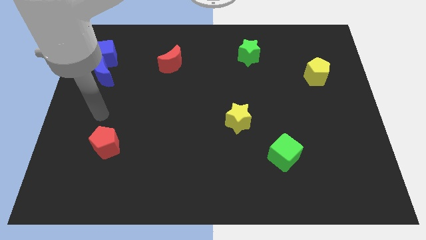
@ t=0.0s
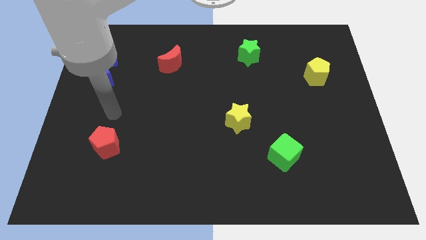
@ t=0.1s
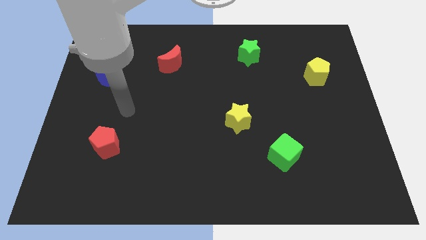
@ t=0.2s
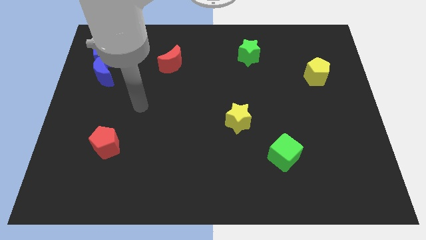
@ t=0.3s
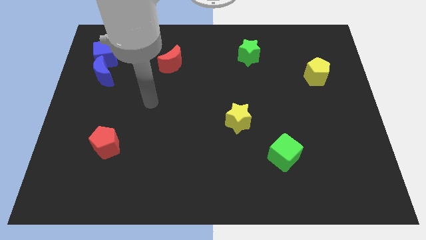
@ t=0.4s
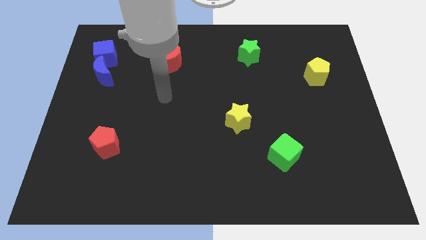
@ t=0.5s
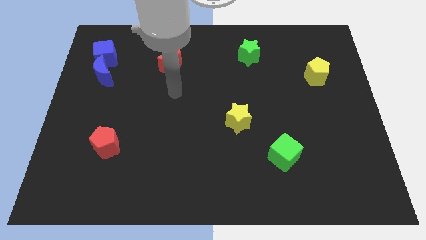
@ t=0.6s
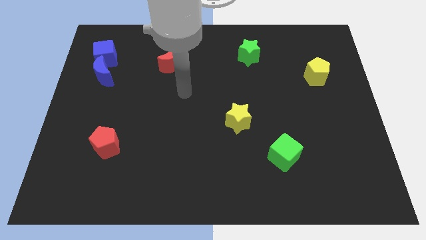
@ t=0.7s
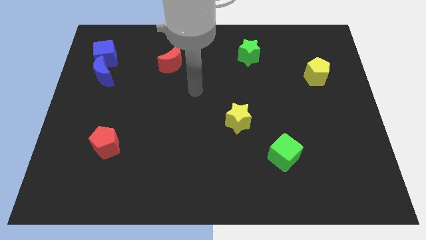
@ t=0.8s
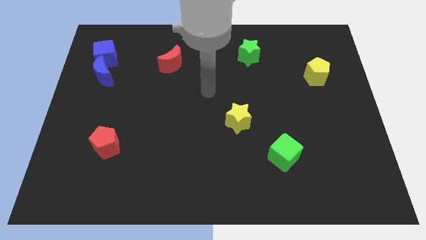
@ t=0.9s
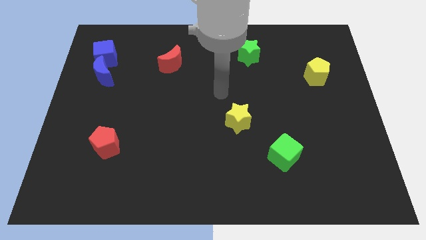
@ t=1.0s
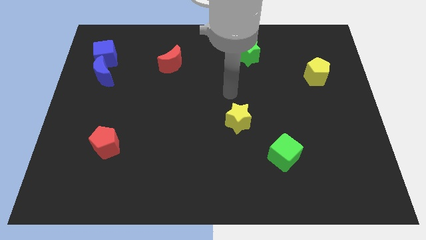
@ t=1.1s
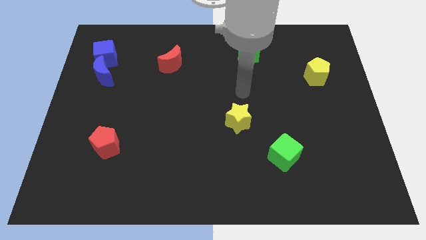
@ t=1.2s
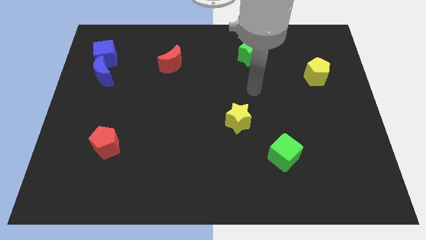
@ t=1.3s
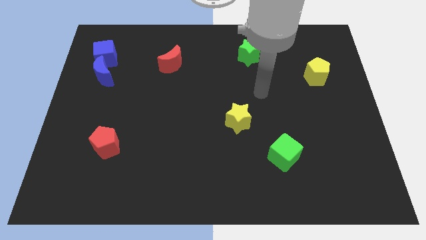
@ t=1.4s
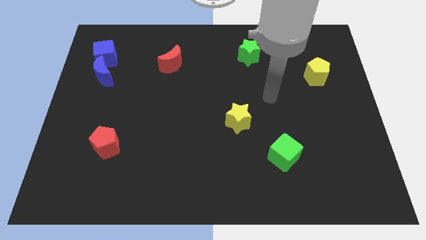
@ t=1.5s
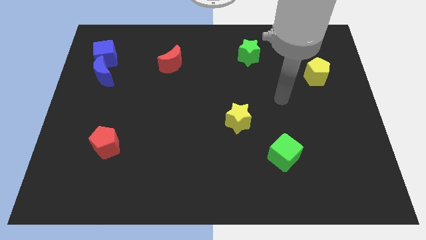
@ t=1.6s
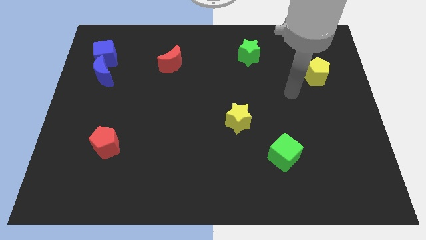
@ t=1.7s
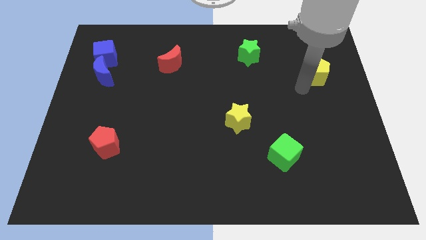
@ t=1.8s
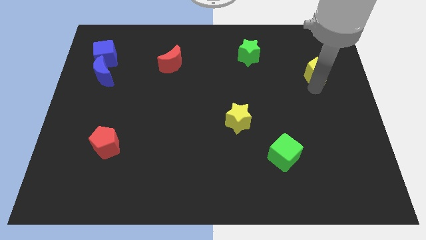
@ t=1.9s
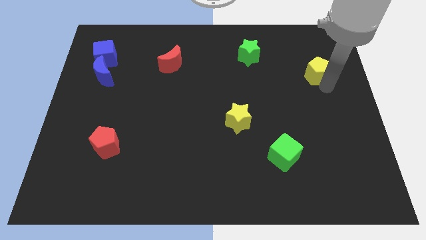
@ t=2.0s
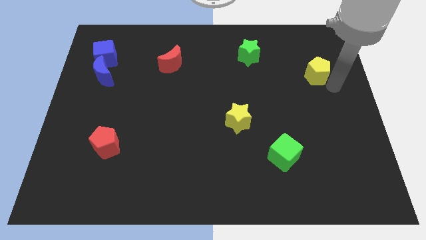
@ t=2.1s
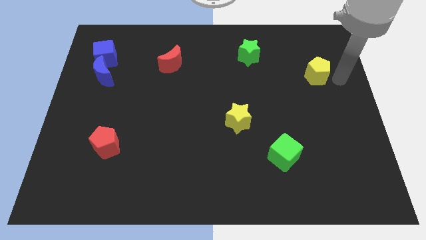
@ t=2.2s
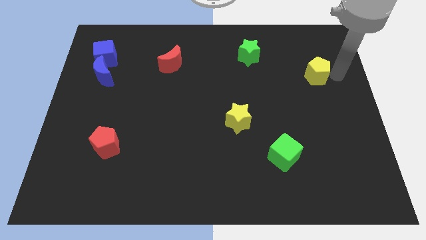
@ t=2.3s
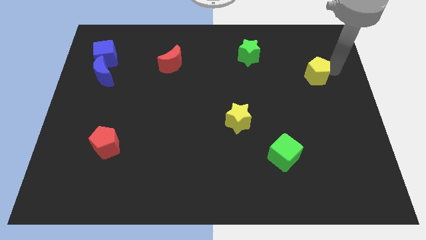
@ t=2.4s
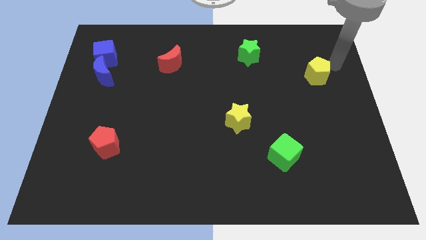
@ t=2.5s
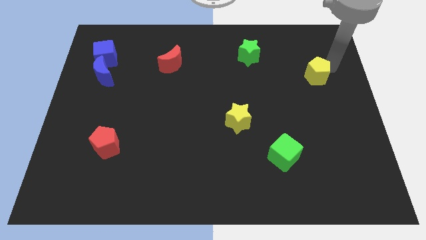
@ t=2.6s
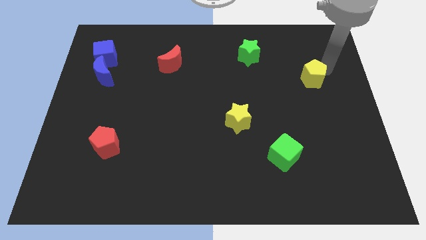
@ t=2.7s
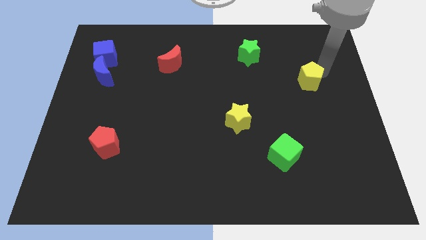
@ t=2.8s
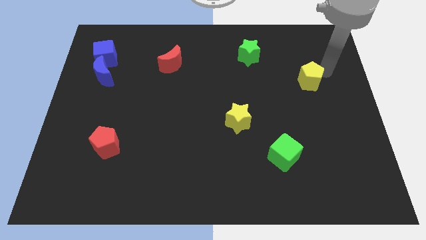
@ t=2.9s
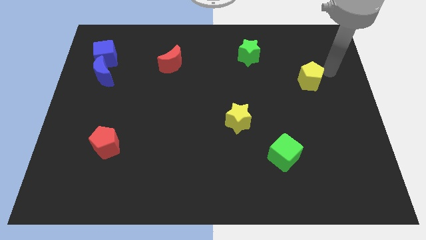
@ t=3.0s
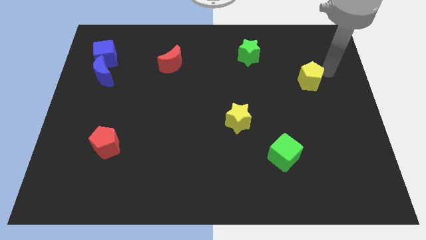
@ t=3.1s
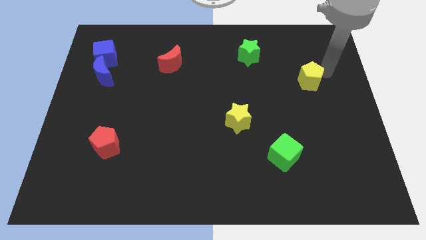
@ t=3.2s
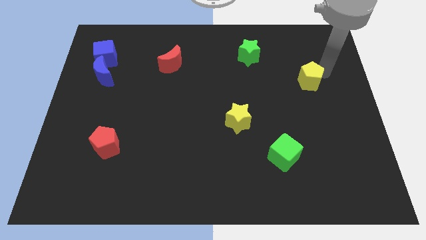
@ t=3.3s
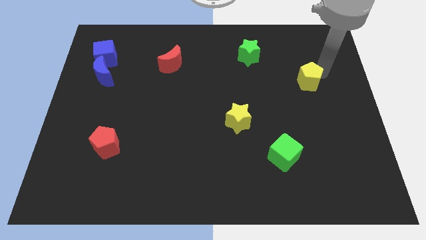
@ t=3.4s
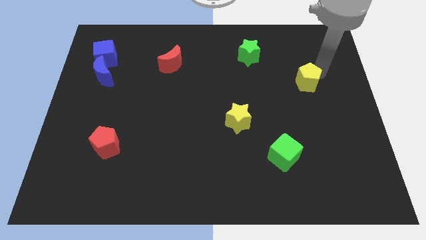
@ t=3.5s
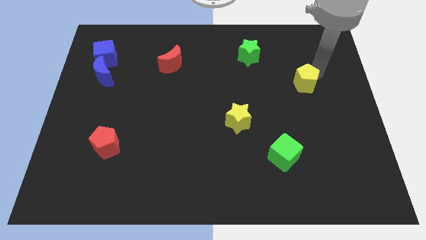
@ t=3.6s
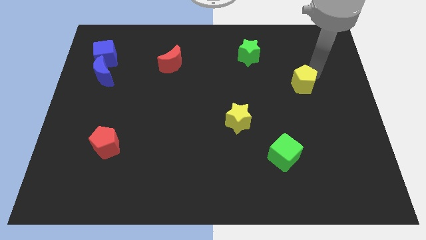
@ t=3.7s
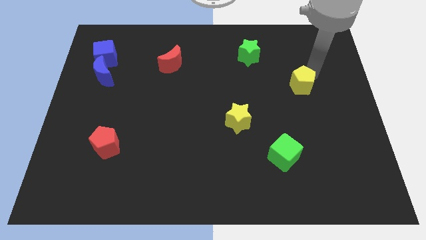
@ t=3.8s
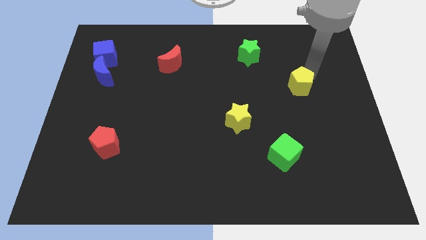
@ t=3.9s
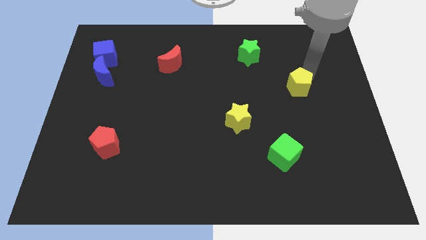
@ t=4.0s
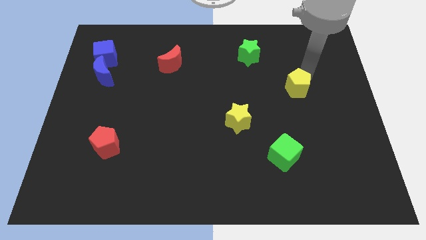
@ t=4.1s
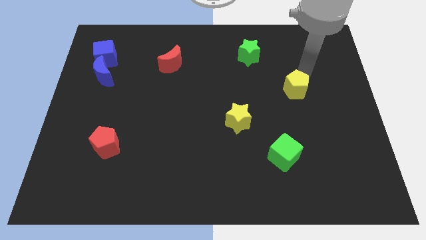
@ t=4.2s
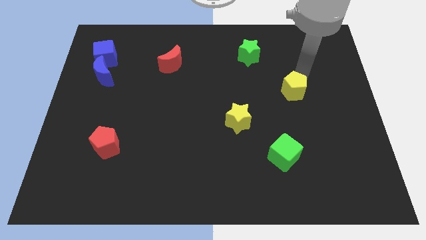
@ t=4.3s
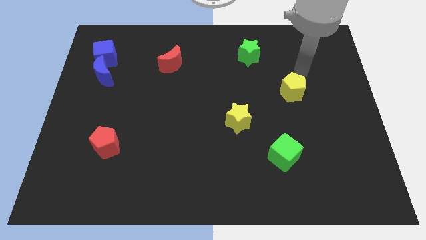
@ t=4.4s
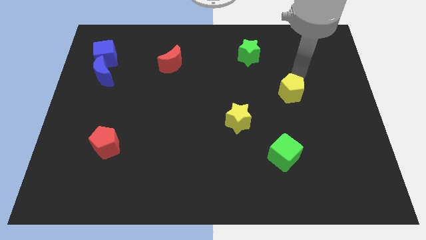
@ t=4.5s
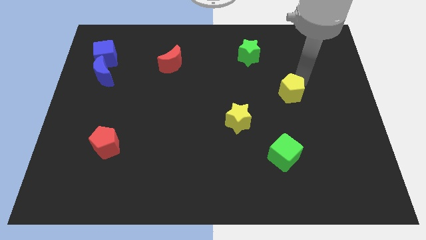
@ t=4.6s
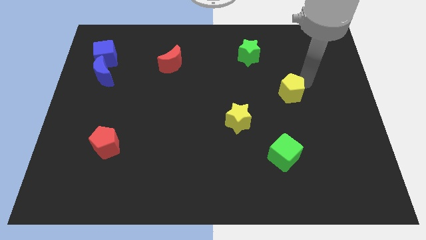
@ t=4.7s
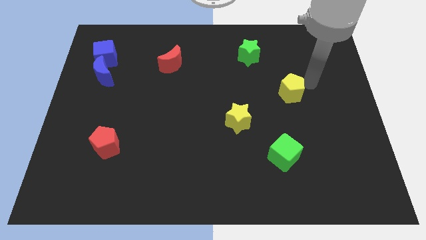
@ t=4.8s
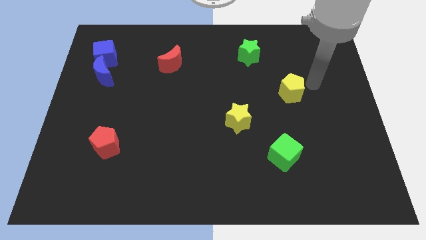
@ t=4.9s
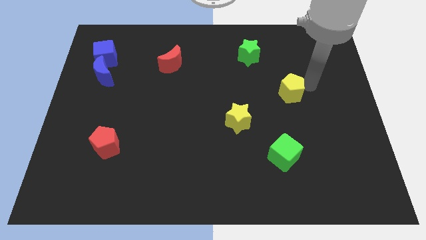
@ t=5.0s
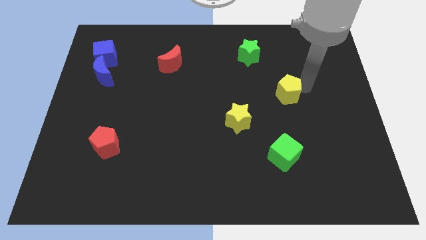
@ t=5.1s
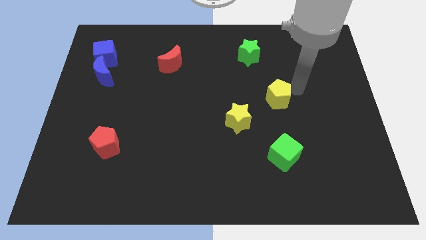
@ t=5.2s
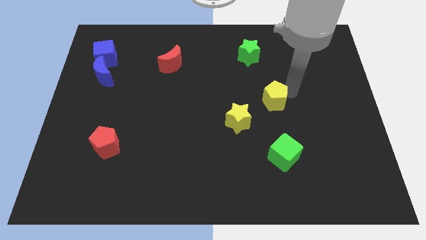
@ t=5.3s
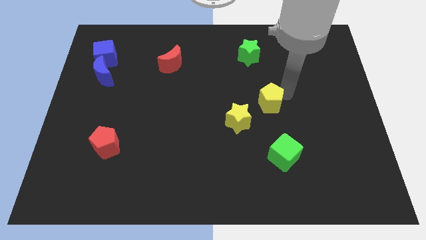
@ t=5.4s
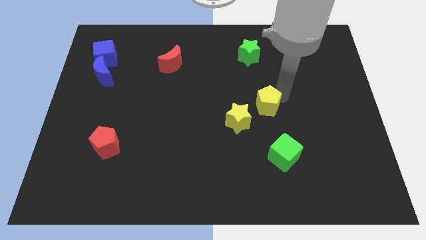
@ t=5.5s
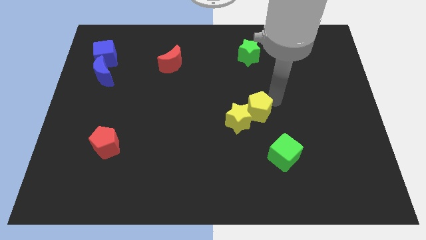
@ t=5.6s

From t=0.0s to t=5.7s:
push the yellow pentagon close to the yellow star

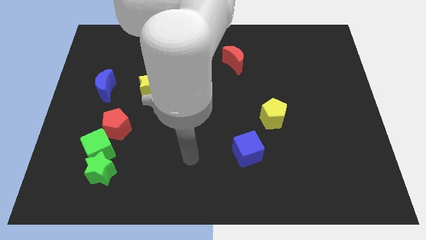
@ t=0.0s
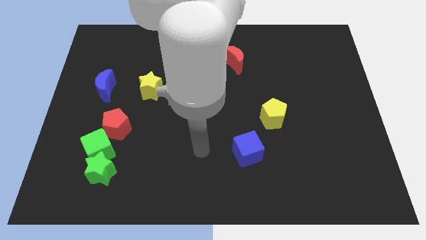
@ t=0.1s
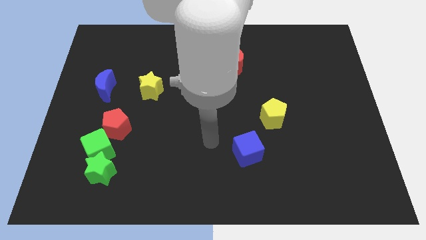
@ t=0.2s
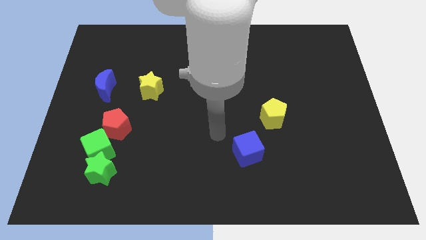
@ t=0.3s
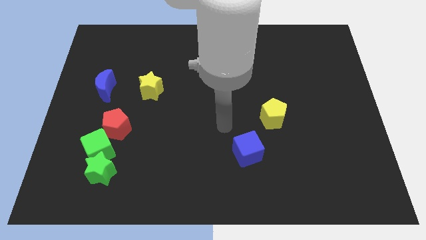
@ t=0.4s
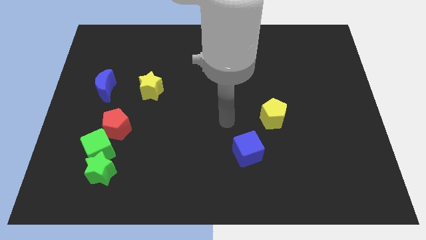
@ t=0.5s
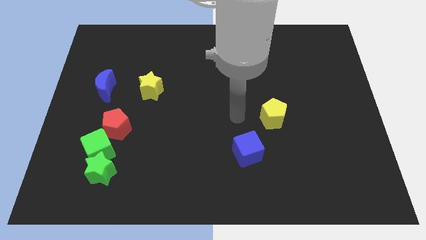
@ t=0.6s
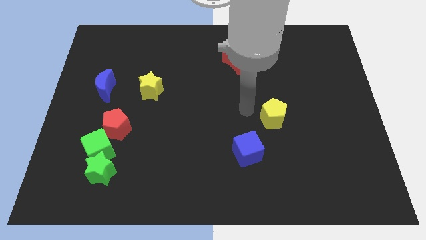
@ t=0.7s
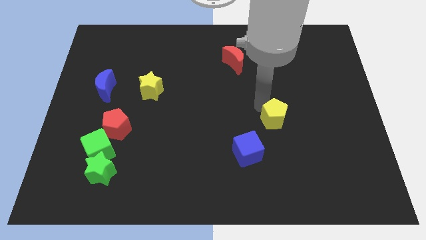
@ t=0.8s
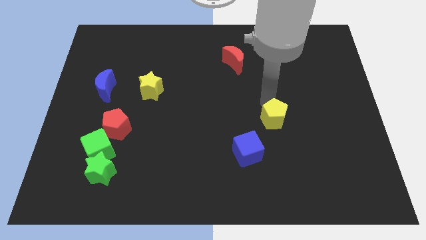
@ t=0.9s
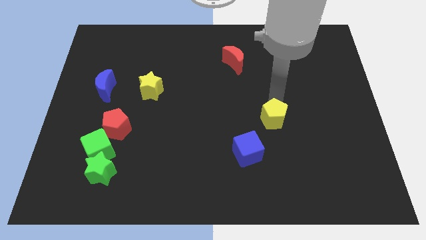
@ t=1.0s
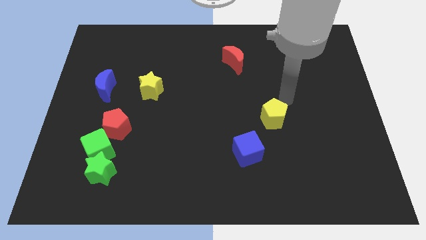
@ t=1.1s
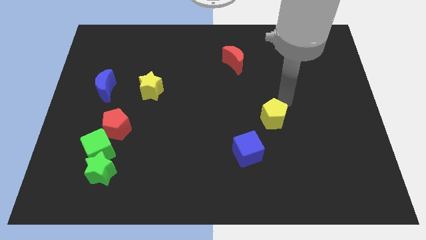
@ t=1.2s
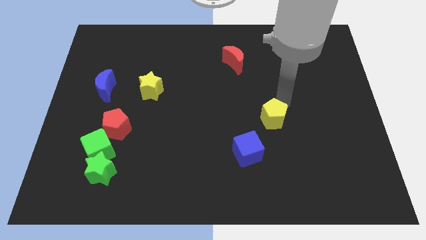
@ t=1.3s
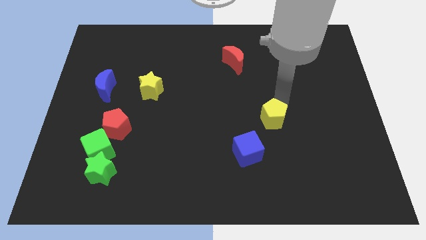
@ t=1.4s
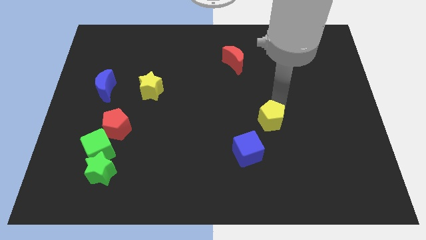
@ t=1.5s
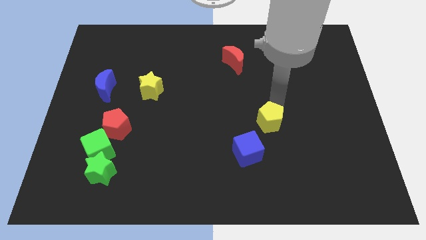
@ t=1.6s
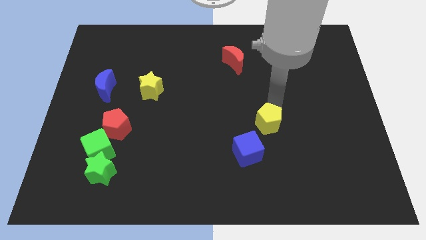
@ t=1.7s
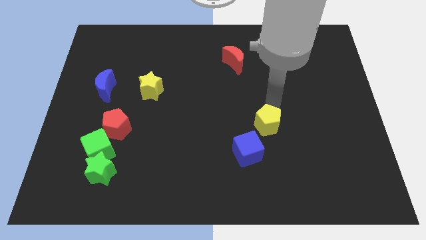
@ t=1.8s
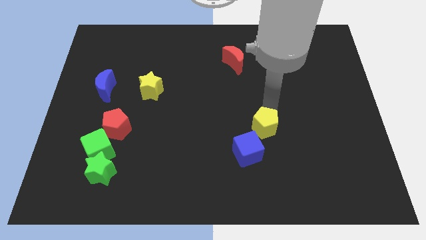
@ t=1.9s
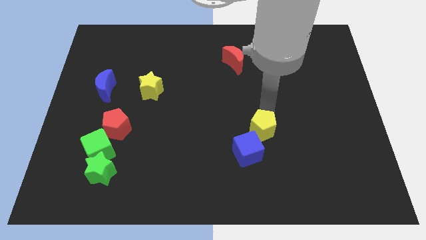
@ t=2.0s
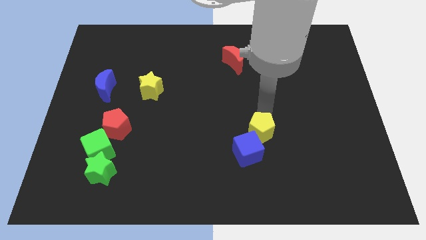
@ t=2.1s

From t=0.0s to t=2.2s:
slide the yellow pentagon close to the blue cube
